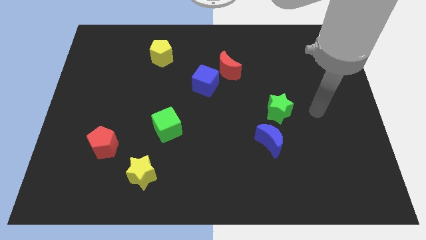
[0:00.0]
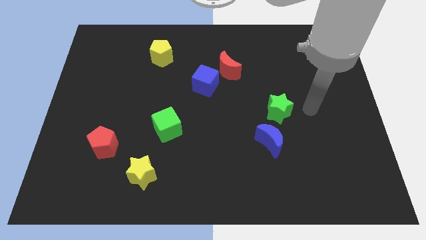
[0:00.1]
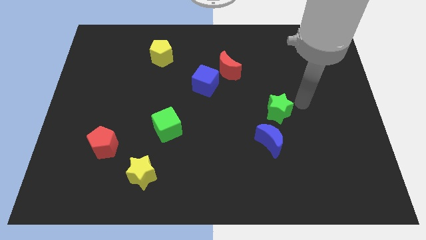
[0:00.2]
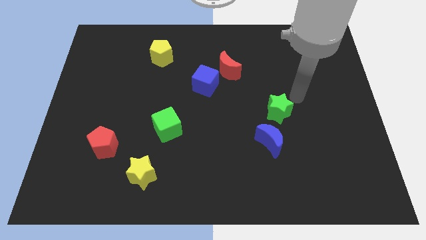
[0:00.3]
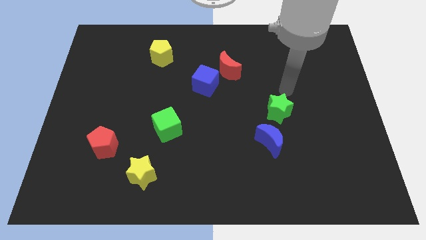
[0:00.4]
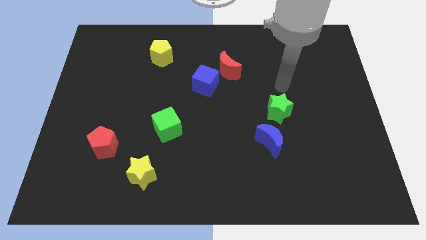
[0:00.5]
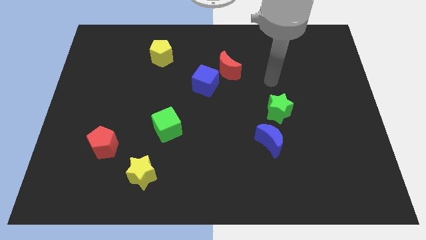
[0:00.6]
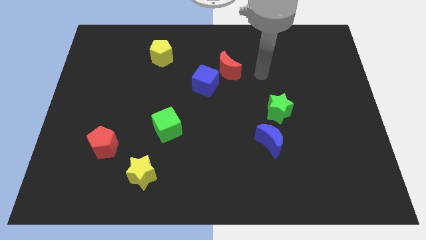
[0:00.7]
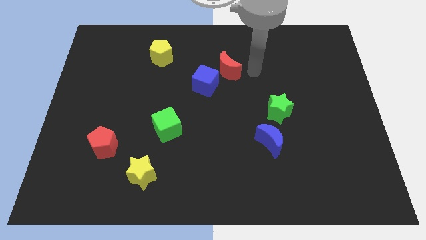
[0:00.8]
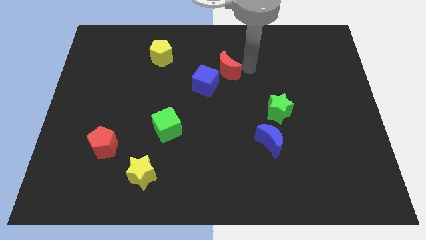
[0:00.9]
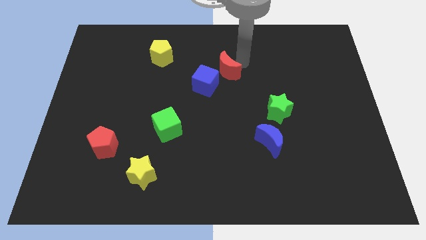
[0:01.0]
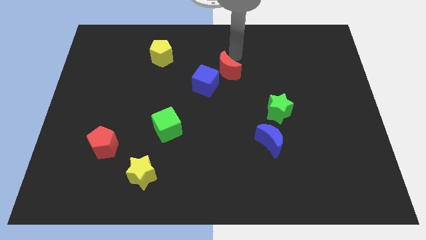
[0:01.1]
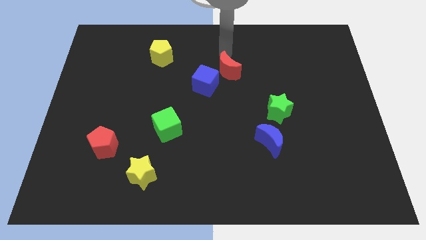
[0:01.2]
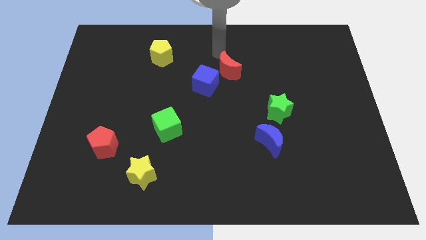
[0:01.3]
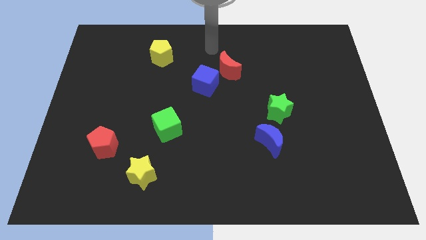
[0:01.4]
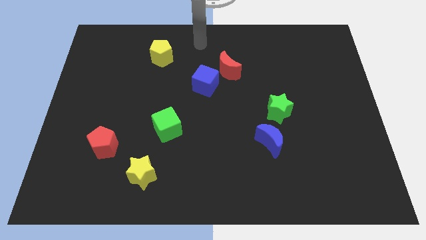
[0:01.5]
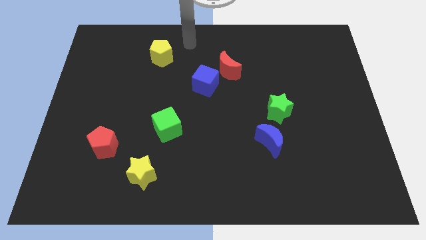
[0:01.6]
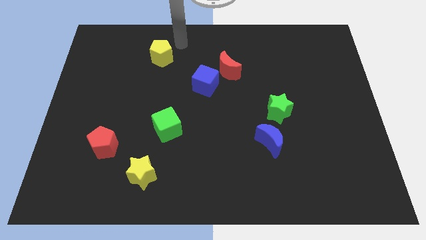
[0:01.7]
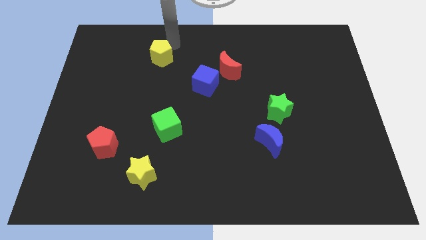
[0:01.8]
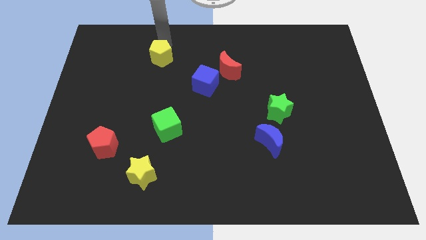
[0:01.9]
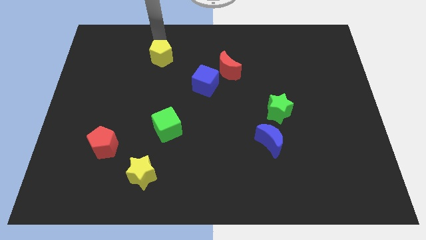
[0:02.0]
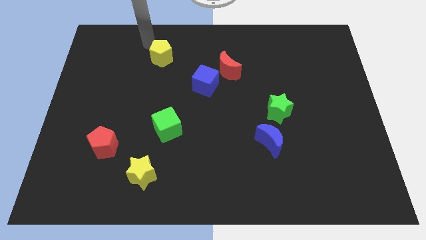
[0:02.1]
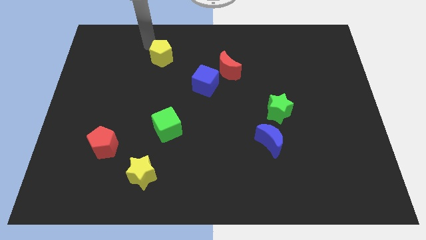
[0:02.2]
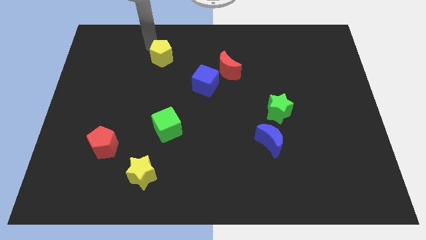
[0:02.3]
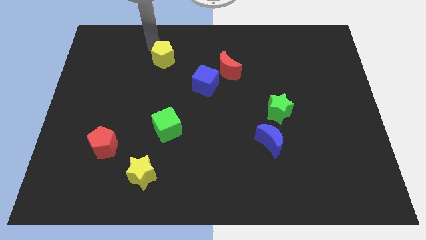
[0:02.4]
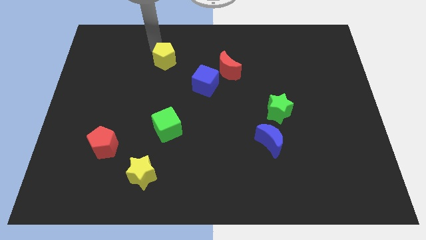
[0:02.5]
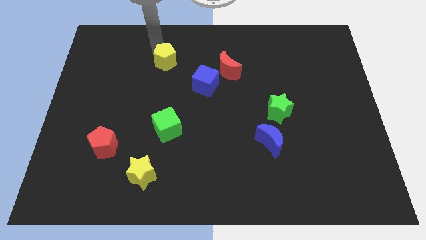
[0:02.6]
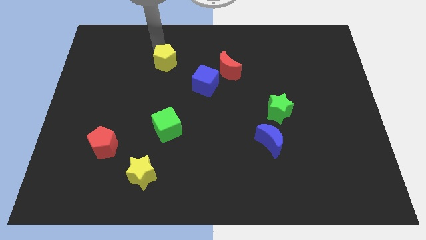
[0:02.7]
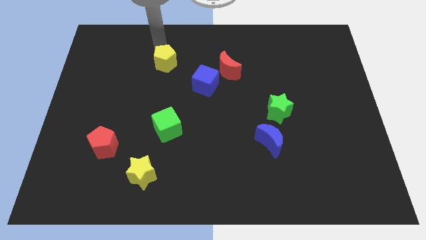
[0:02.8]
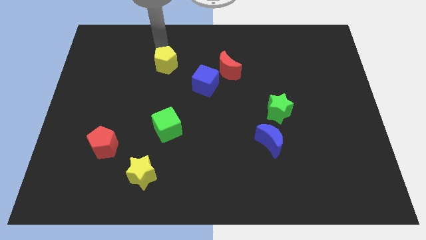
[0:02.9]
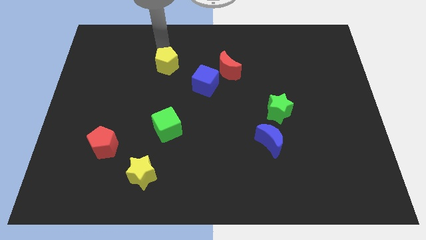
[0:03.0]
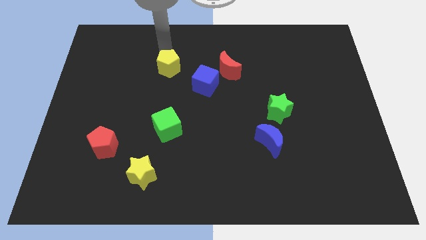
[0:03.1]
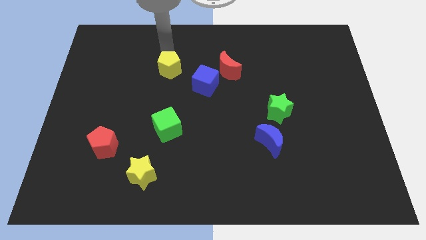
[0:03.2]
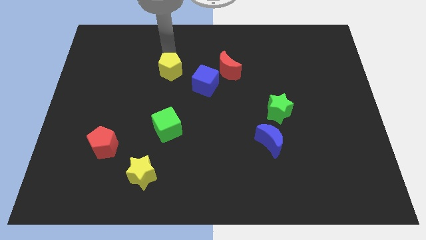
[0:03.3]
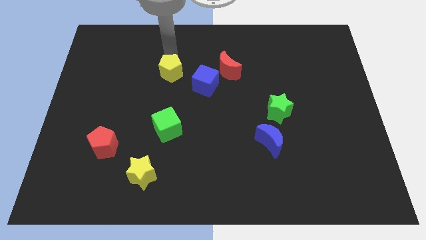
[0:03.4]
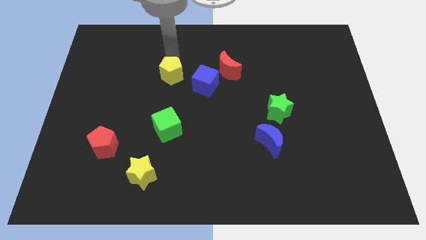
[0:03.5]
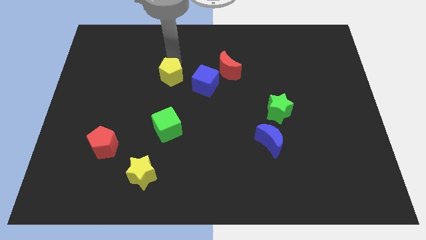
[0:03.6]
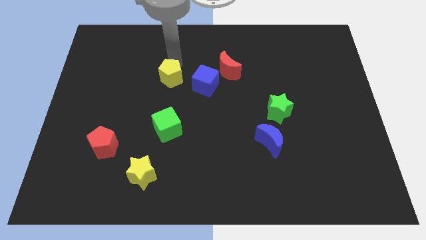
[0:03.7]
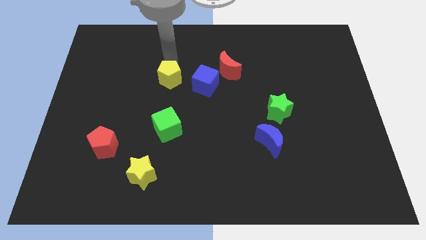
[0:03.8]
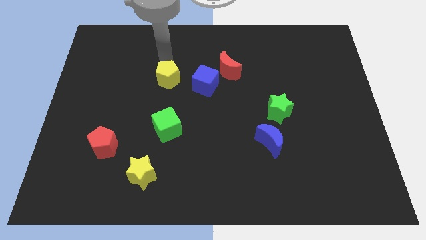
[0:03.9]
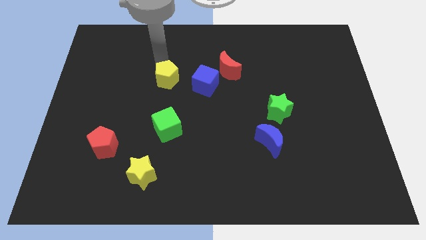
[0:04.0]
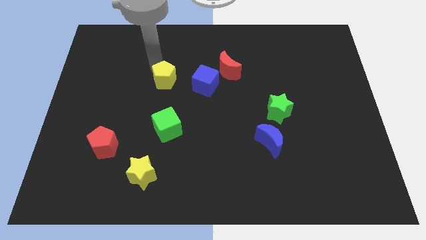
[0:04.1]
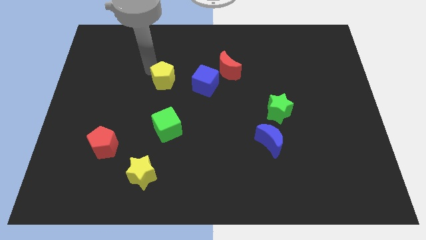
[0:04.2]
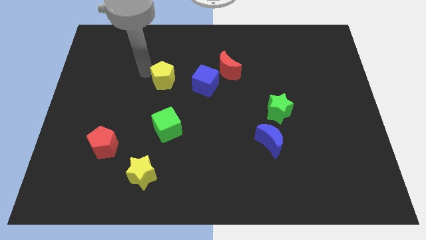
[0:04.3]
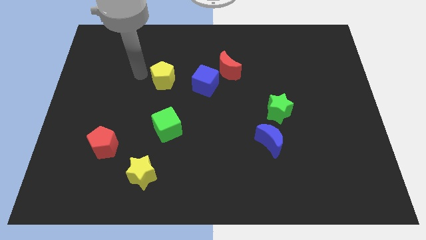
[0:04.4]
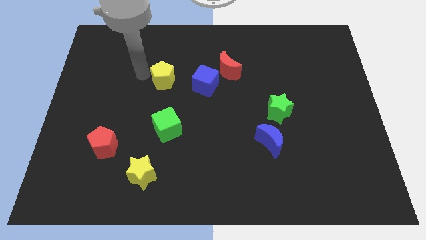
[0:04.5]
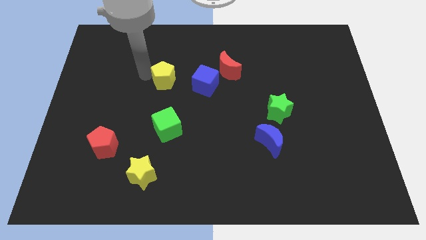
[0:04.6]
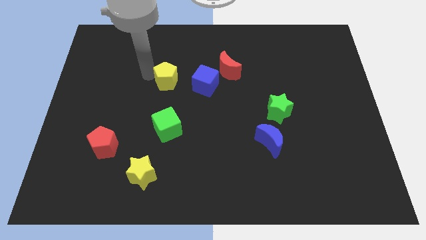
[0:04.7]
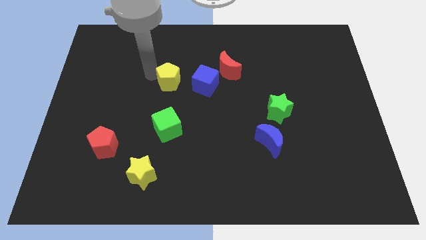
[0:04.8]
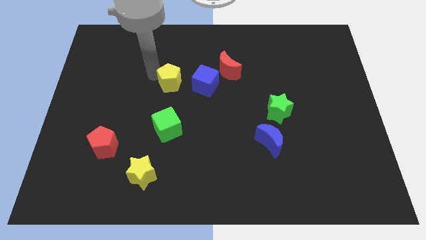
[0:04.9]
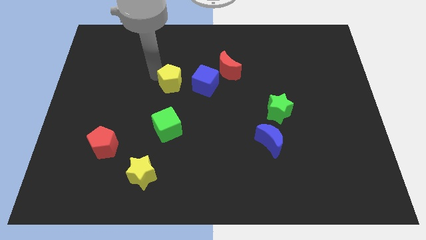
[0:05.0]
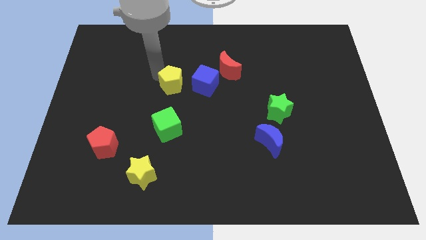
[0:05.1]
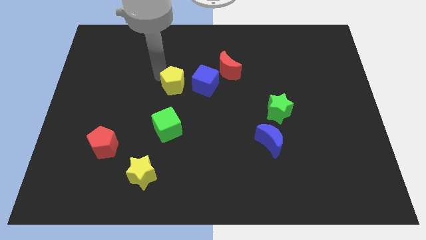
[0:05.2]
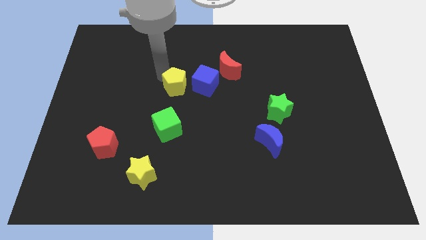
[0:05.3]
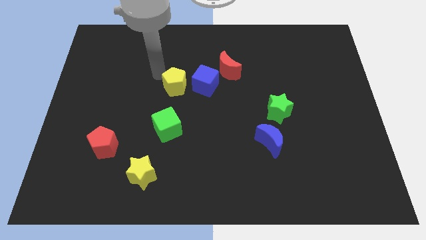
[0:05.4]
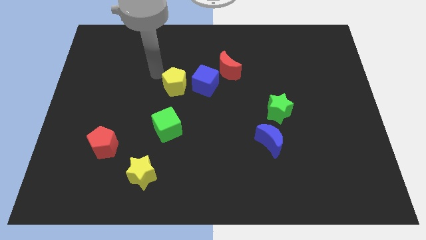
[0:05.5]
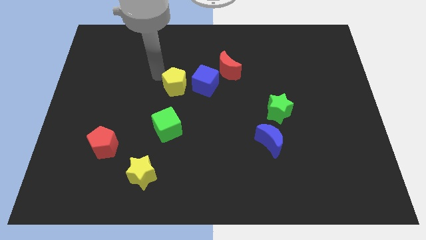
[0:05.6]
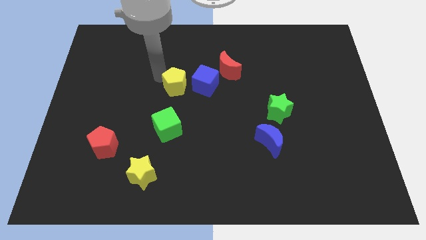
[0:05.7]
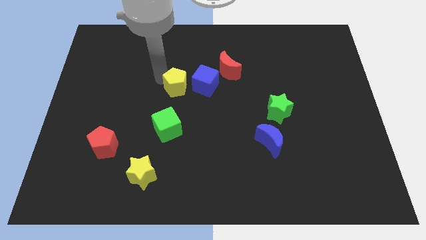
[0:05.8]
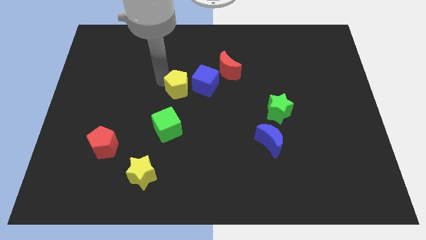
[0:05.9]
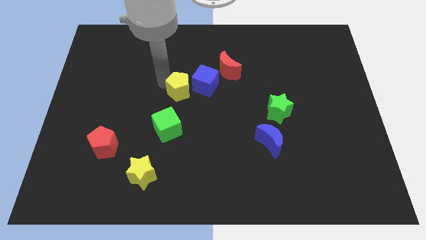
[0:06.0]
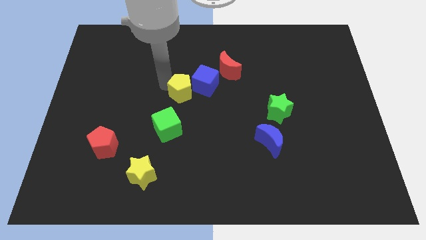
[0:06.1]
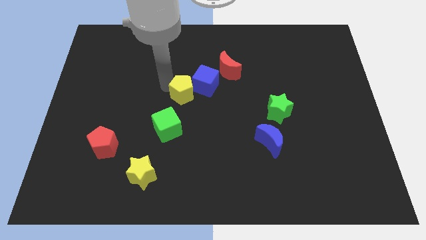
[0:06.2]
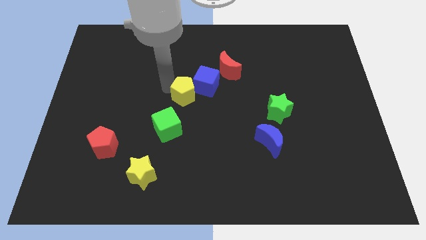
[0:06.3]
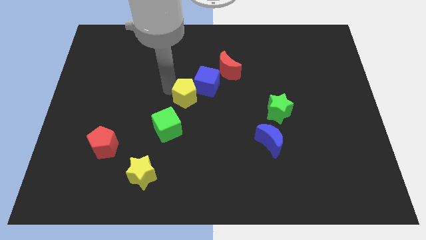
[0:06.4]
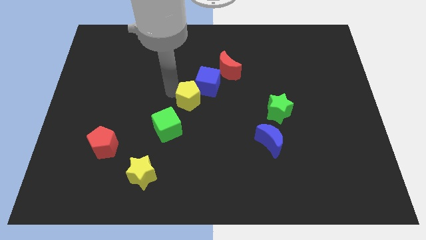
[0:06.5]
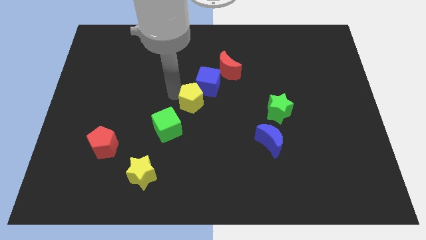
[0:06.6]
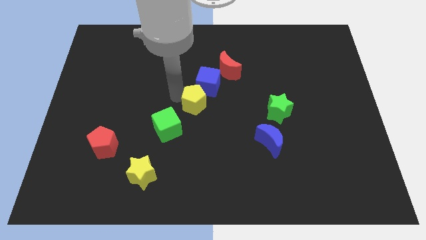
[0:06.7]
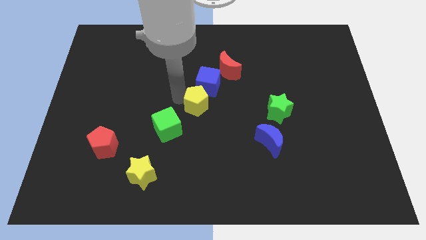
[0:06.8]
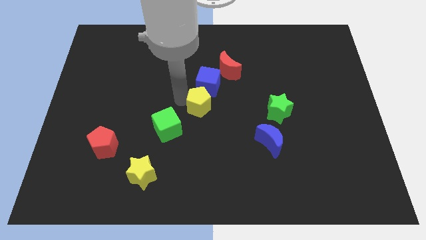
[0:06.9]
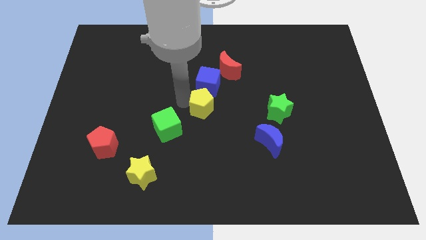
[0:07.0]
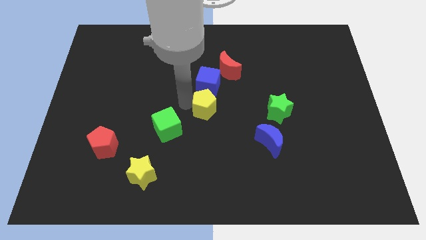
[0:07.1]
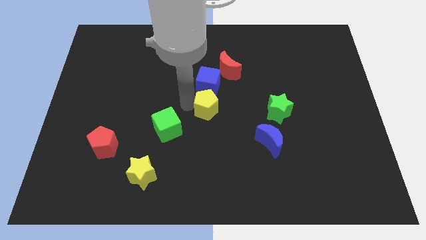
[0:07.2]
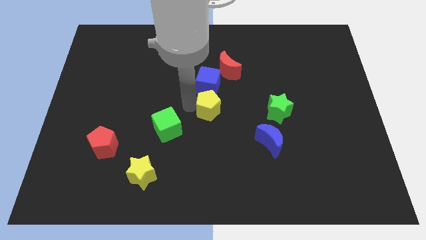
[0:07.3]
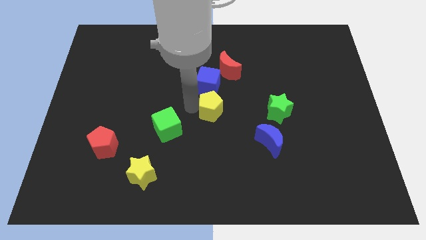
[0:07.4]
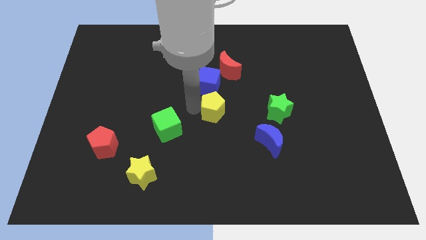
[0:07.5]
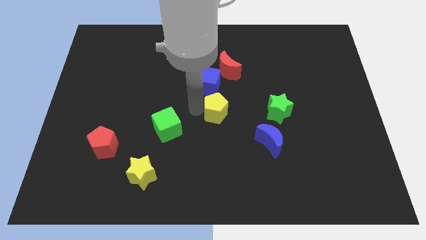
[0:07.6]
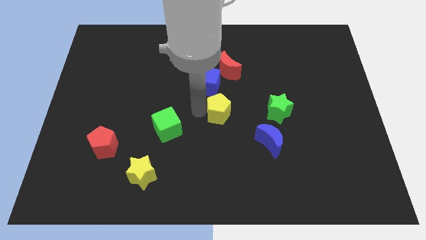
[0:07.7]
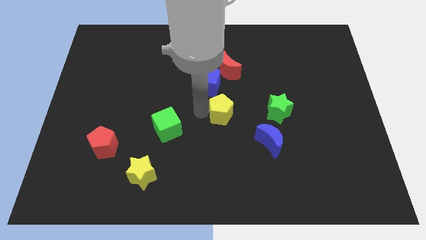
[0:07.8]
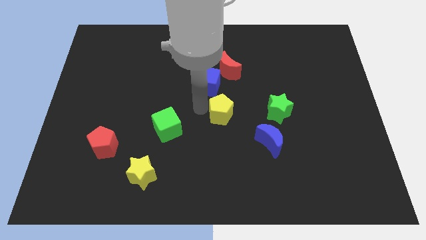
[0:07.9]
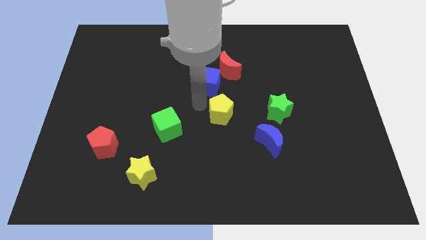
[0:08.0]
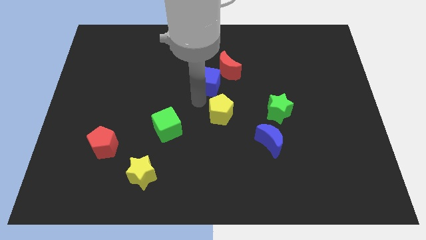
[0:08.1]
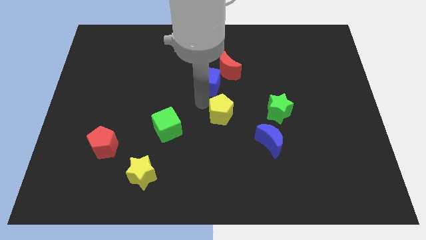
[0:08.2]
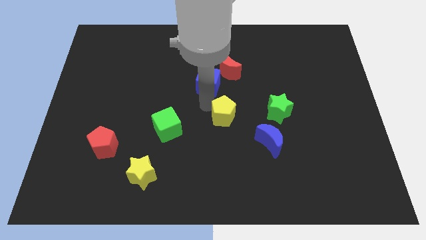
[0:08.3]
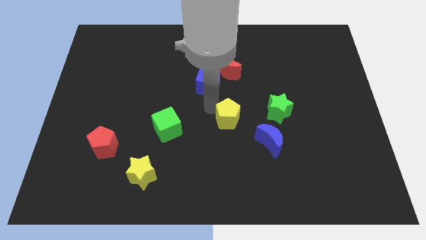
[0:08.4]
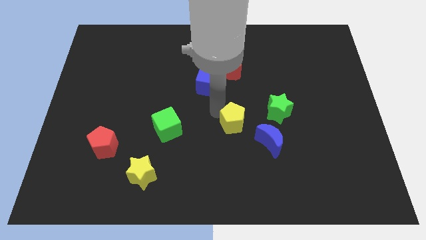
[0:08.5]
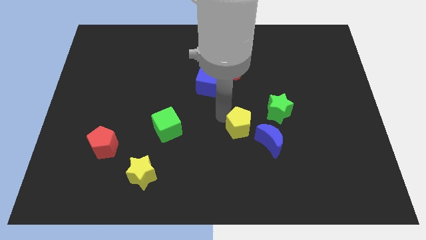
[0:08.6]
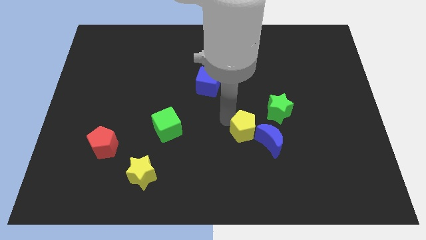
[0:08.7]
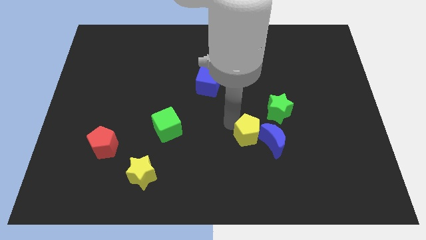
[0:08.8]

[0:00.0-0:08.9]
slide the yellow pentagon close to the blue moon
